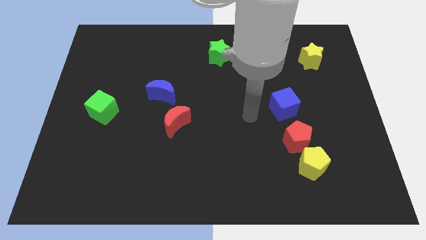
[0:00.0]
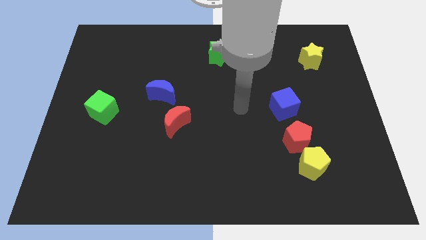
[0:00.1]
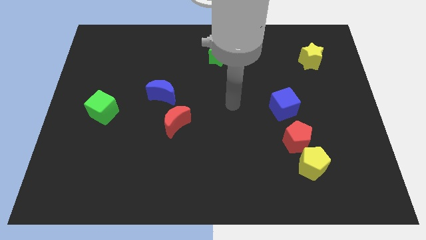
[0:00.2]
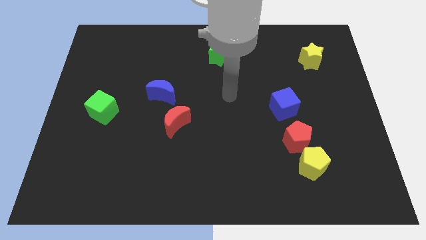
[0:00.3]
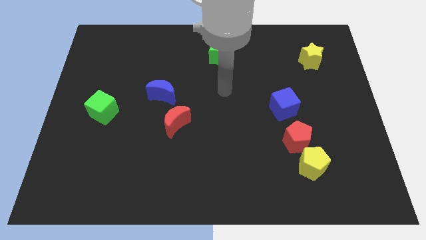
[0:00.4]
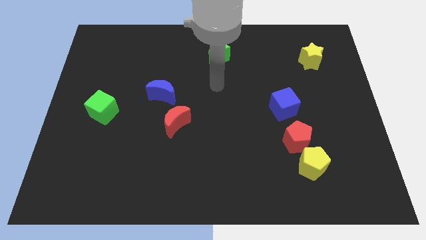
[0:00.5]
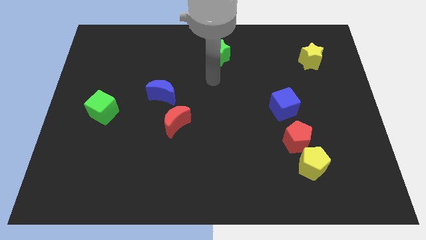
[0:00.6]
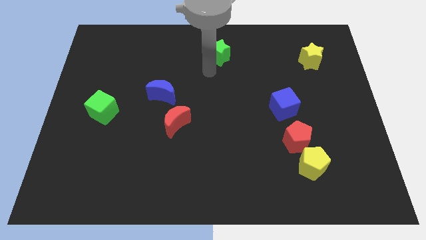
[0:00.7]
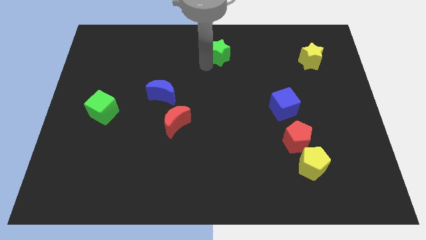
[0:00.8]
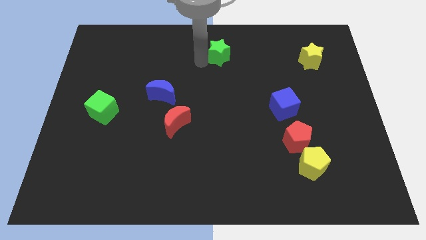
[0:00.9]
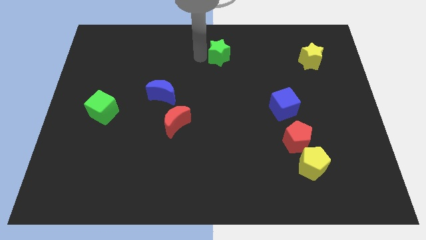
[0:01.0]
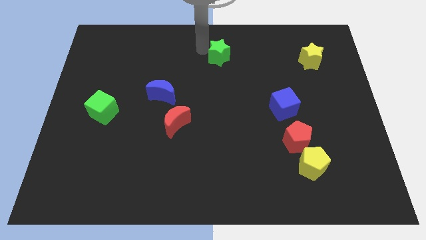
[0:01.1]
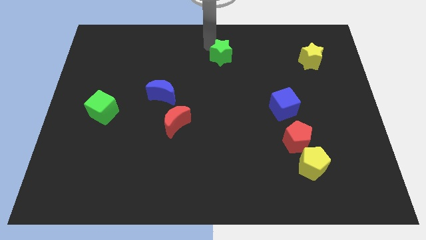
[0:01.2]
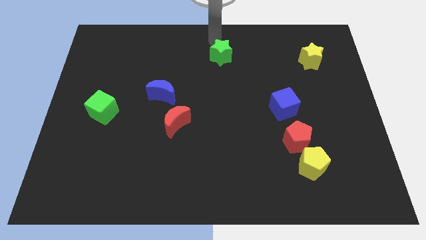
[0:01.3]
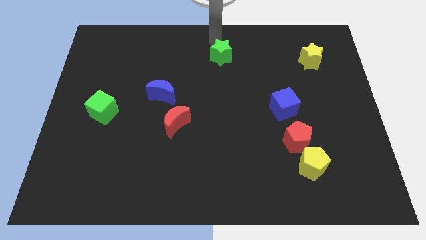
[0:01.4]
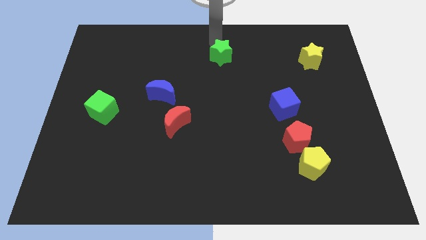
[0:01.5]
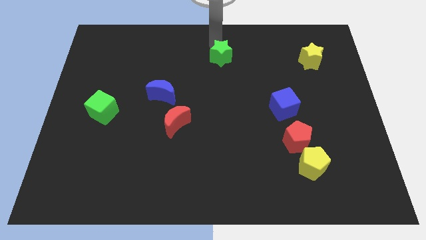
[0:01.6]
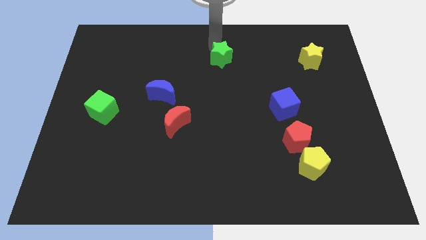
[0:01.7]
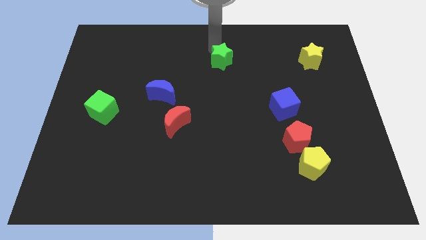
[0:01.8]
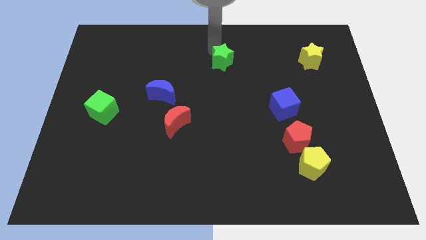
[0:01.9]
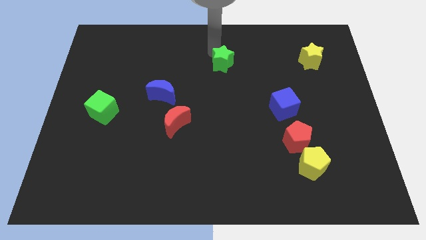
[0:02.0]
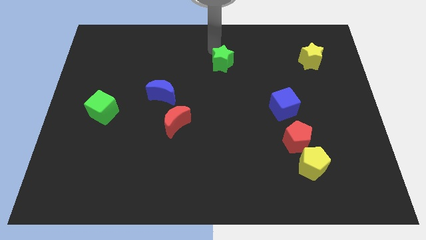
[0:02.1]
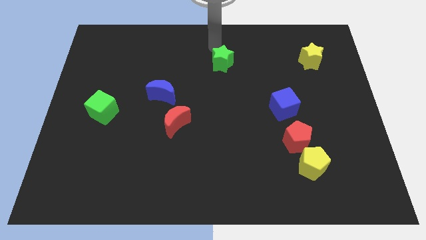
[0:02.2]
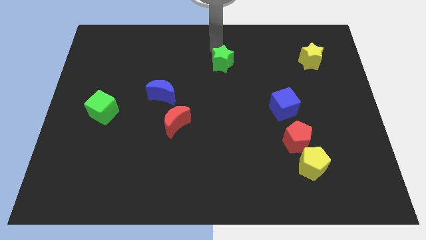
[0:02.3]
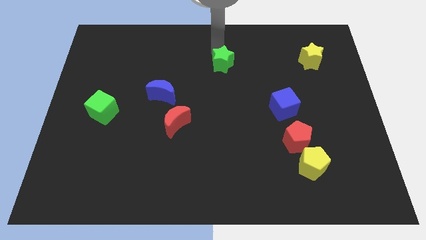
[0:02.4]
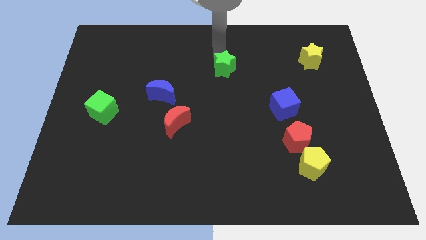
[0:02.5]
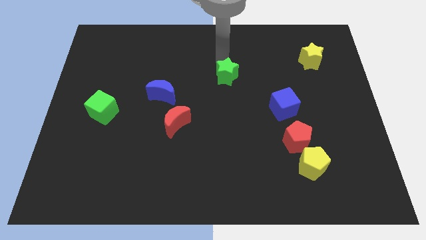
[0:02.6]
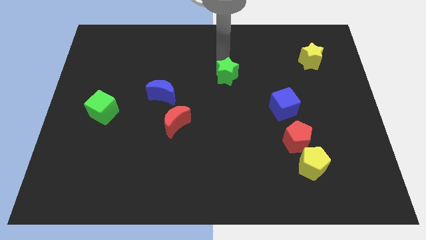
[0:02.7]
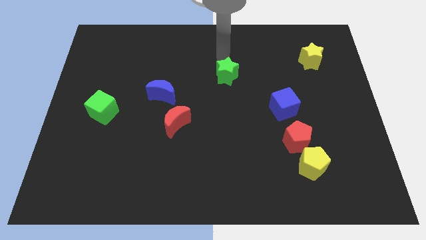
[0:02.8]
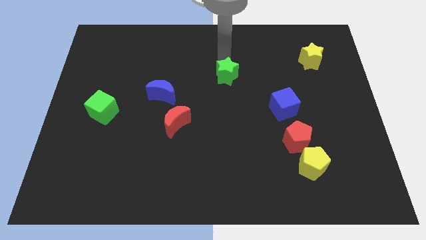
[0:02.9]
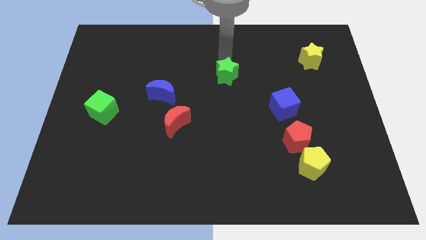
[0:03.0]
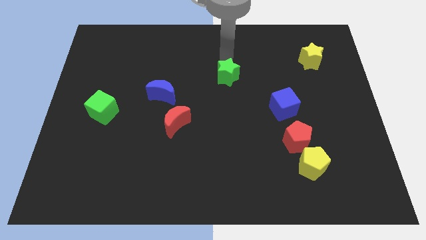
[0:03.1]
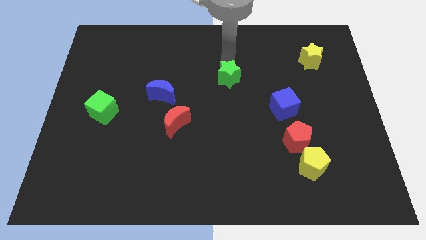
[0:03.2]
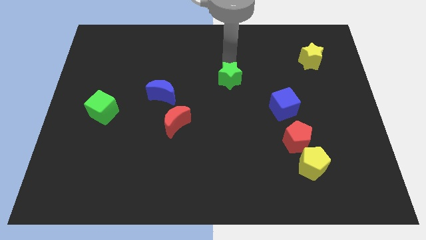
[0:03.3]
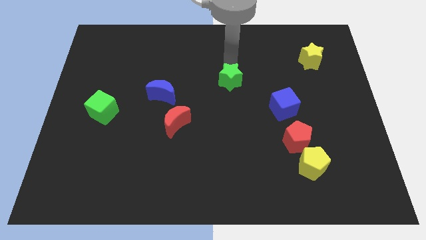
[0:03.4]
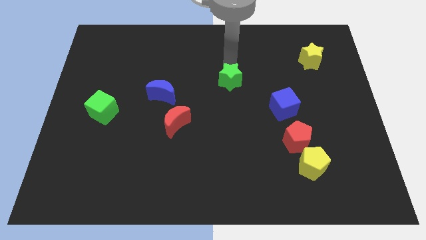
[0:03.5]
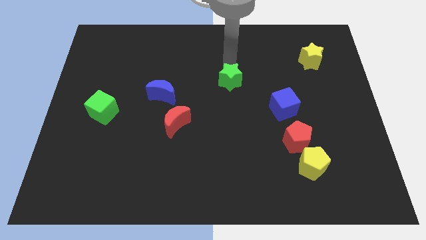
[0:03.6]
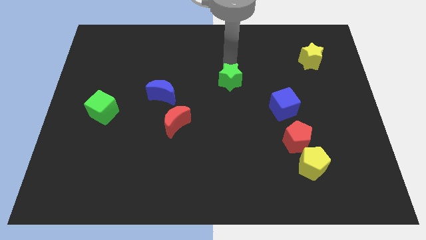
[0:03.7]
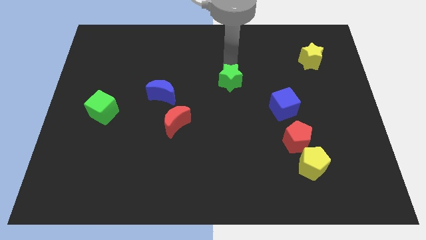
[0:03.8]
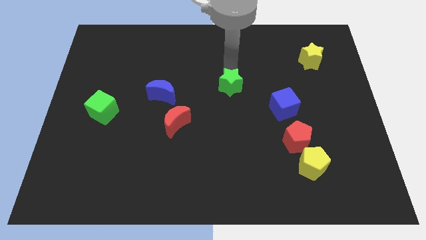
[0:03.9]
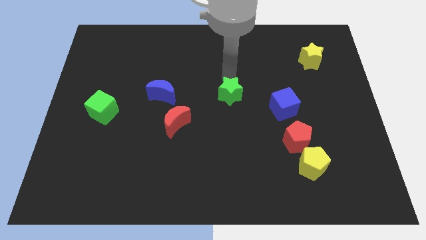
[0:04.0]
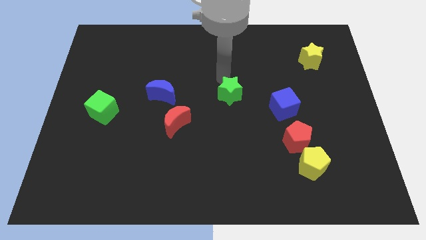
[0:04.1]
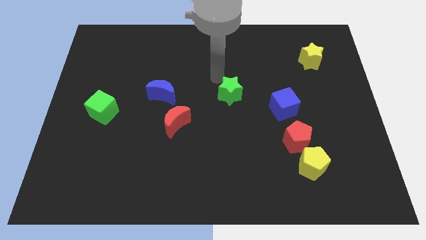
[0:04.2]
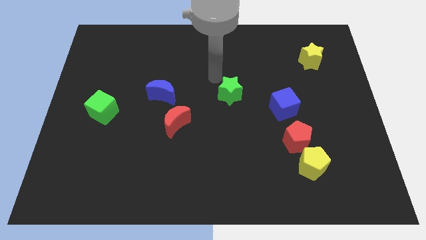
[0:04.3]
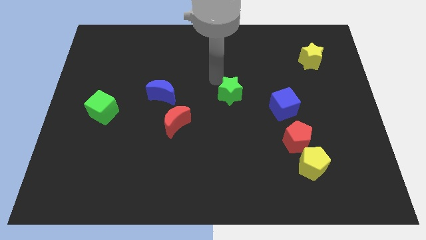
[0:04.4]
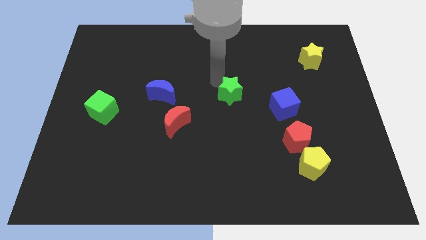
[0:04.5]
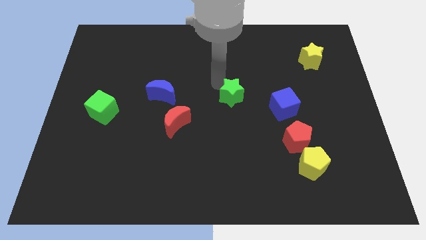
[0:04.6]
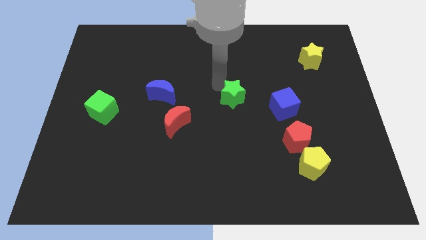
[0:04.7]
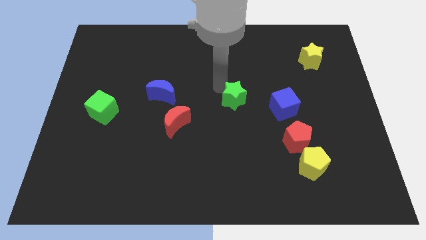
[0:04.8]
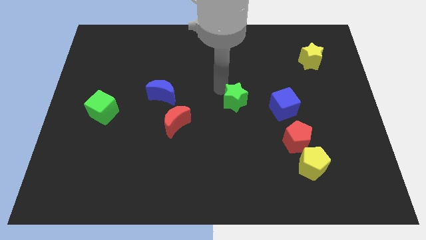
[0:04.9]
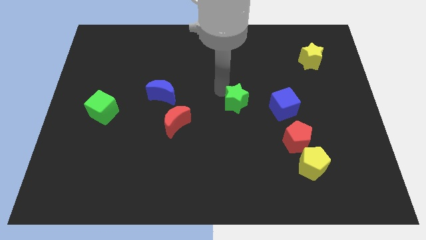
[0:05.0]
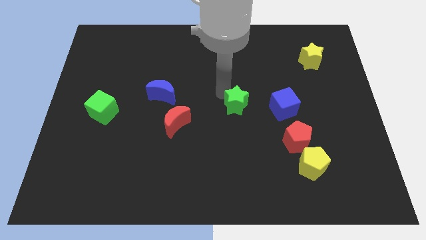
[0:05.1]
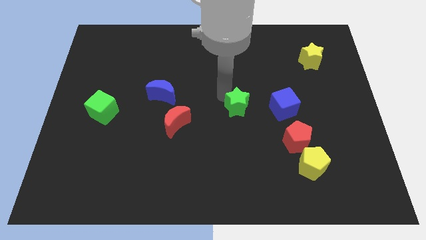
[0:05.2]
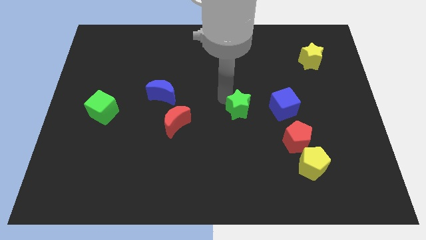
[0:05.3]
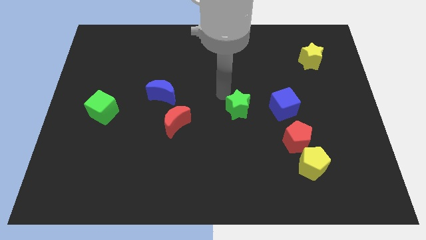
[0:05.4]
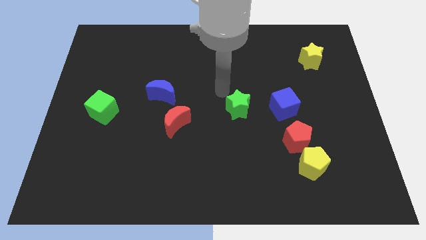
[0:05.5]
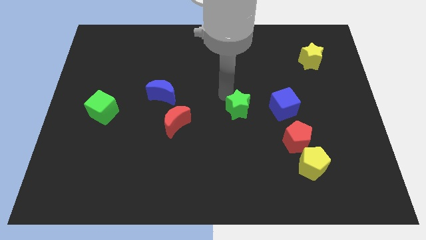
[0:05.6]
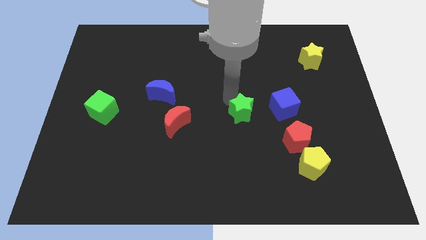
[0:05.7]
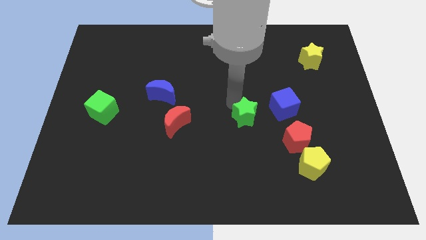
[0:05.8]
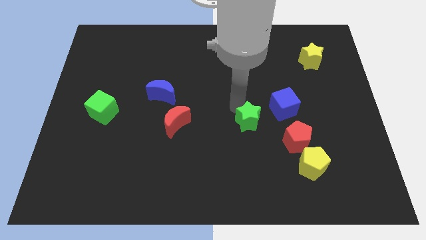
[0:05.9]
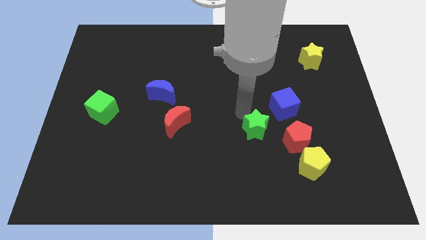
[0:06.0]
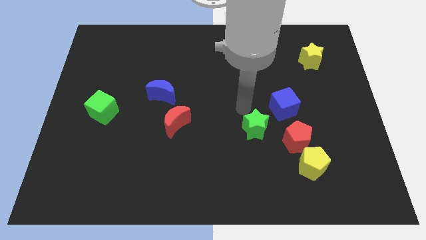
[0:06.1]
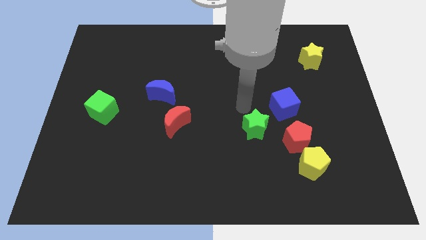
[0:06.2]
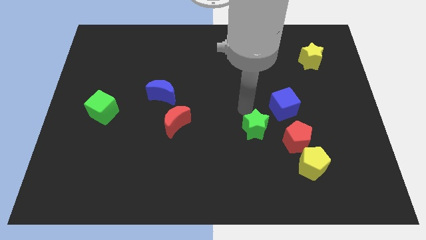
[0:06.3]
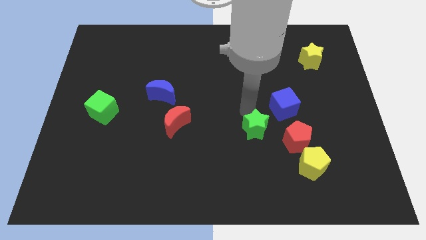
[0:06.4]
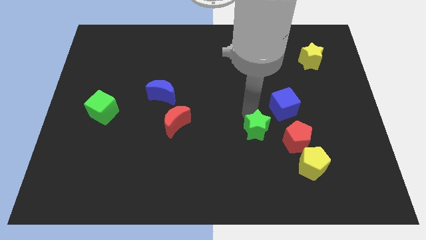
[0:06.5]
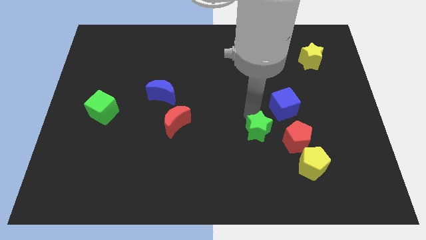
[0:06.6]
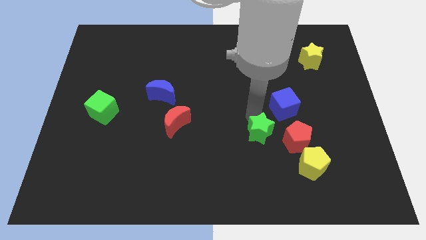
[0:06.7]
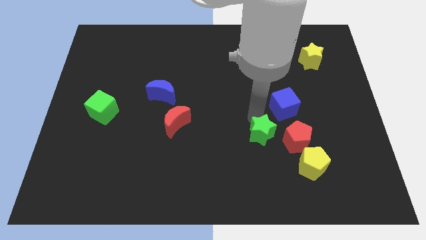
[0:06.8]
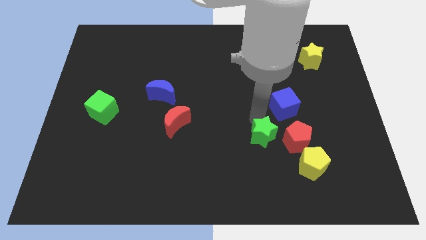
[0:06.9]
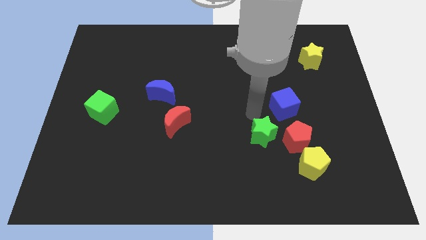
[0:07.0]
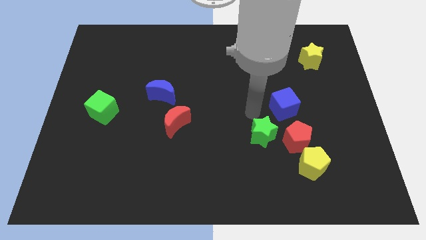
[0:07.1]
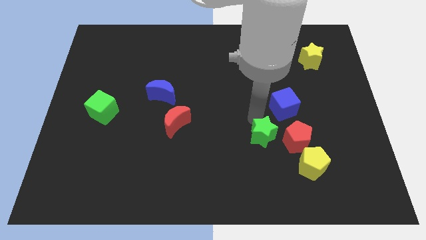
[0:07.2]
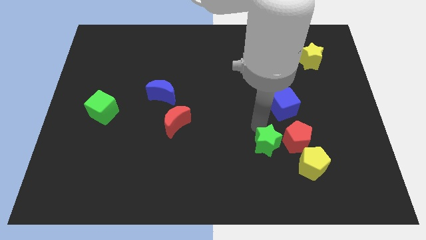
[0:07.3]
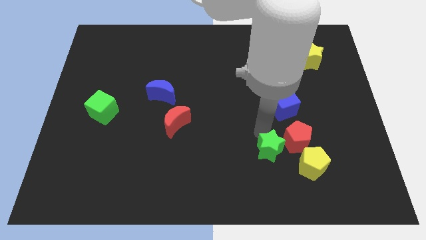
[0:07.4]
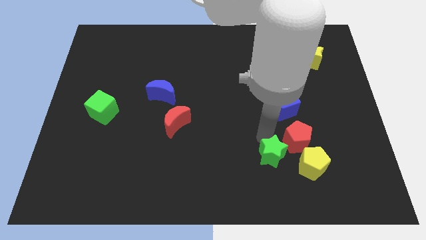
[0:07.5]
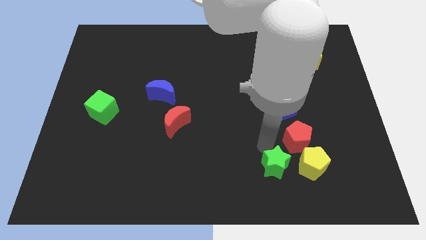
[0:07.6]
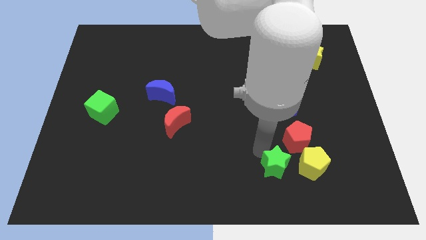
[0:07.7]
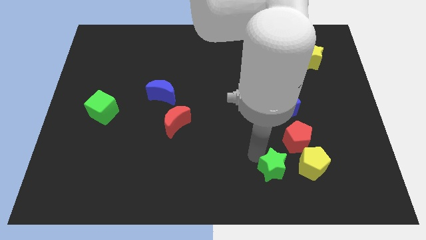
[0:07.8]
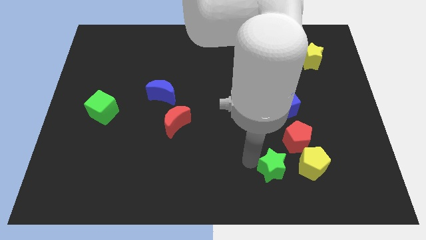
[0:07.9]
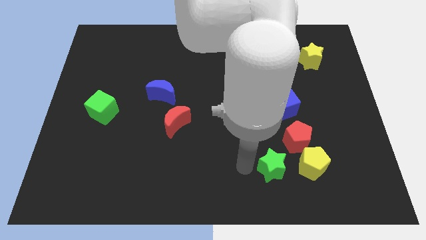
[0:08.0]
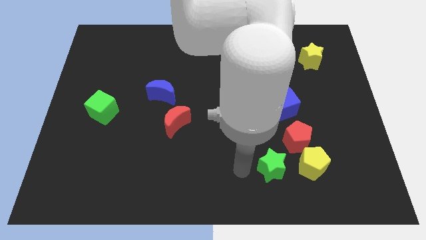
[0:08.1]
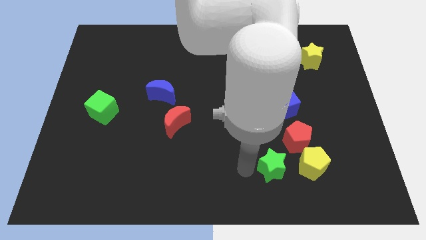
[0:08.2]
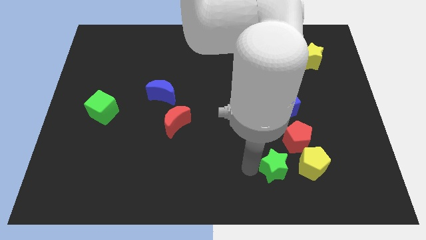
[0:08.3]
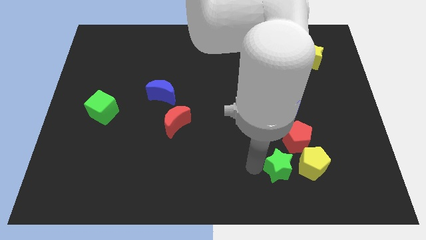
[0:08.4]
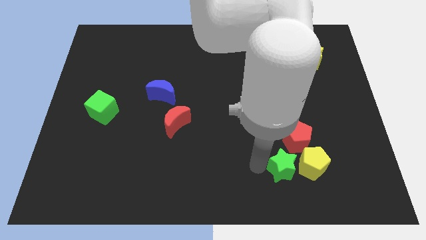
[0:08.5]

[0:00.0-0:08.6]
move the green star next to the yellow pentagon
